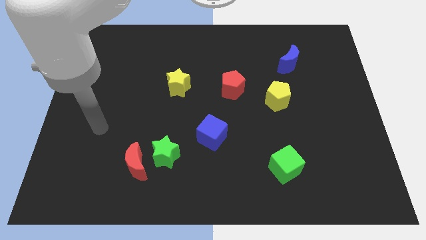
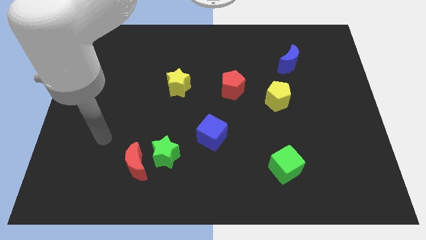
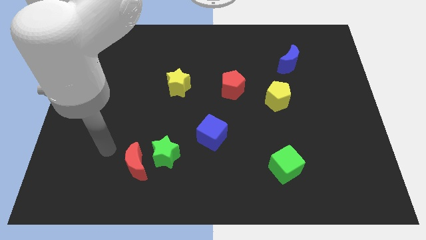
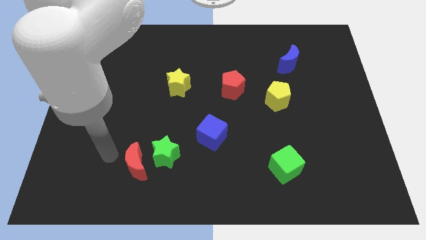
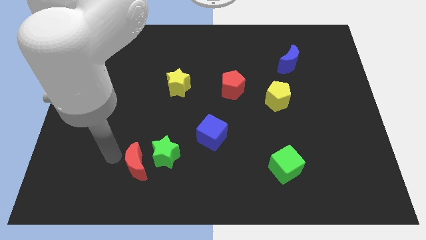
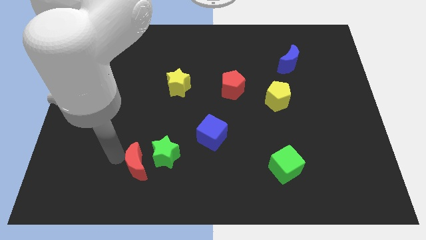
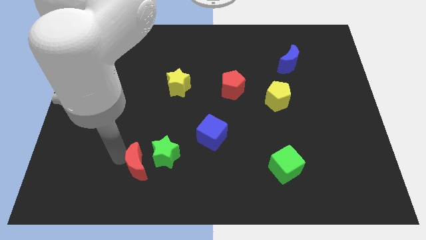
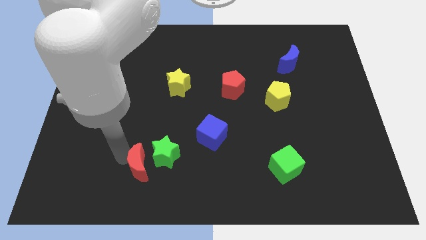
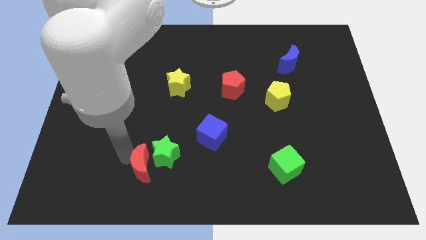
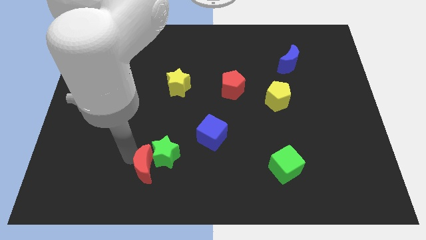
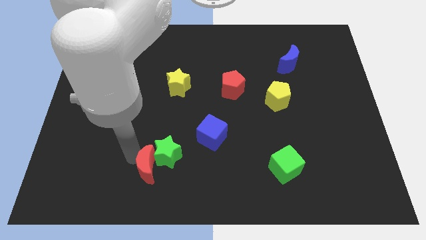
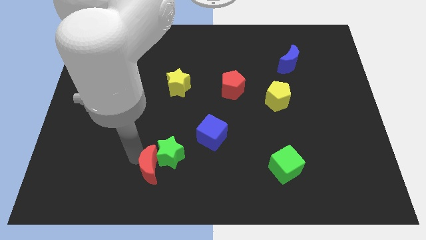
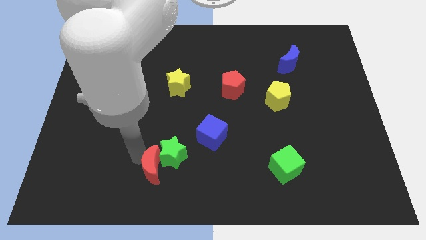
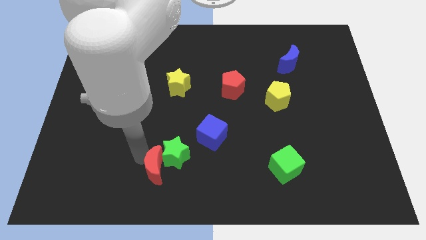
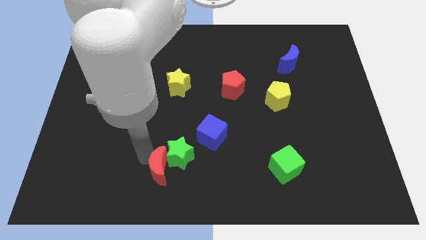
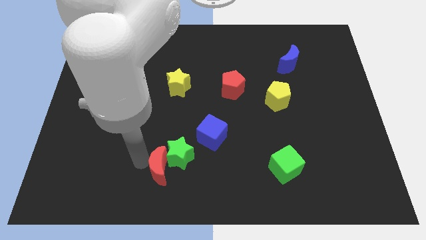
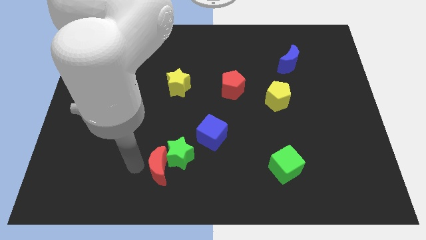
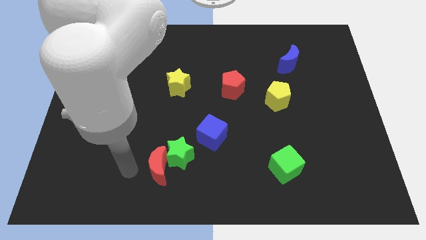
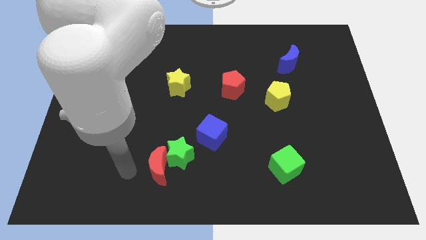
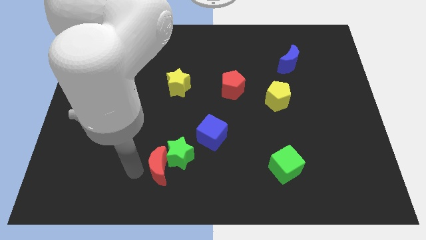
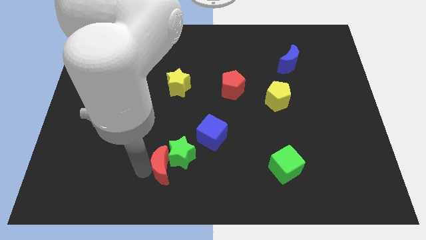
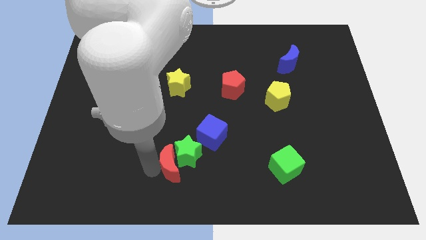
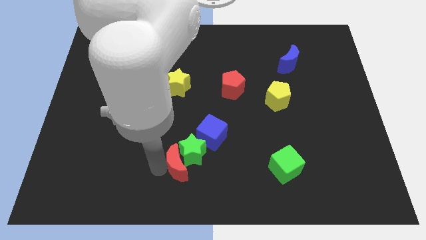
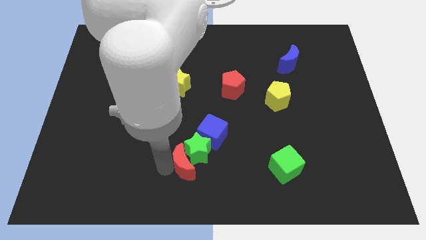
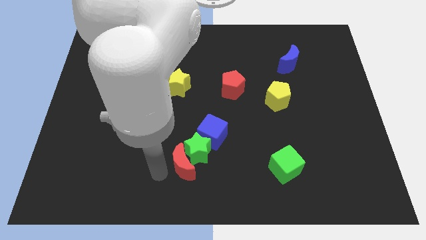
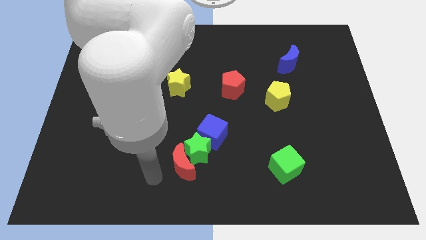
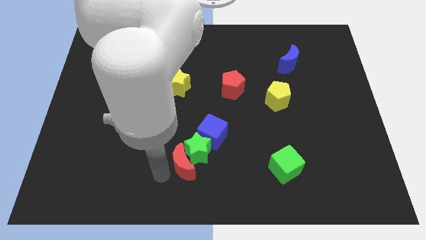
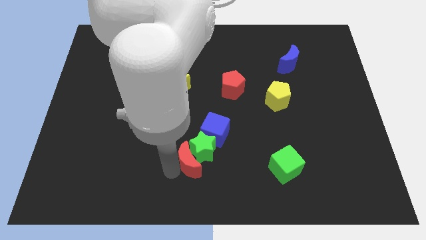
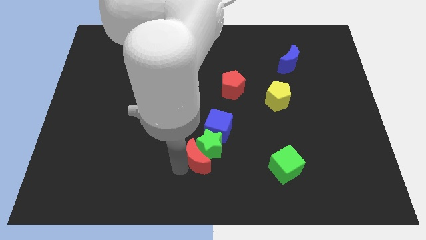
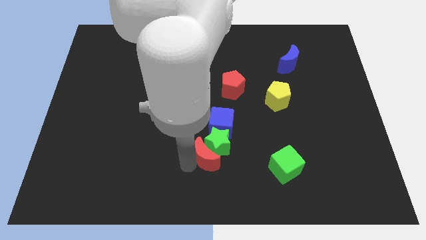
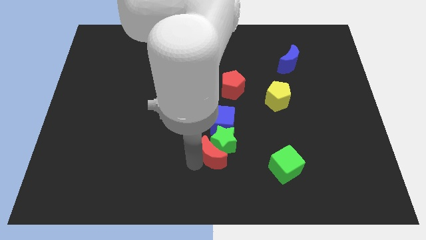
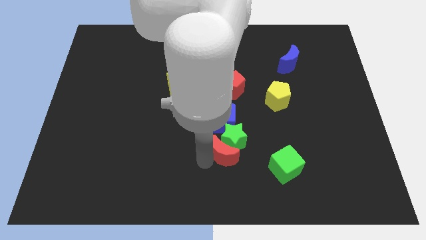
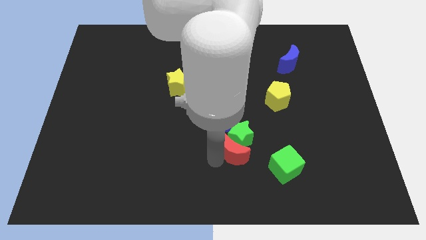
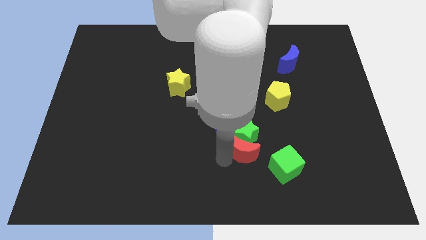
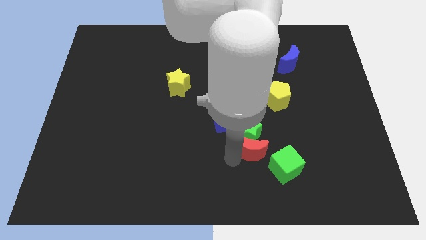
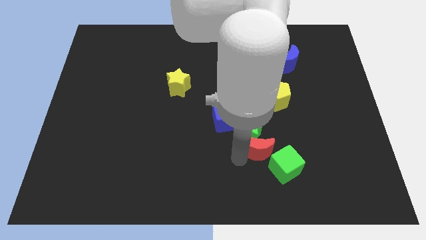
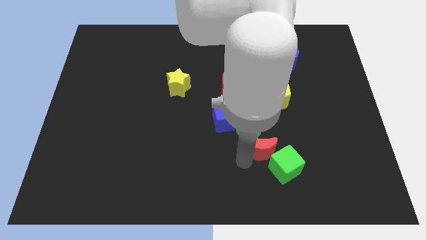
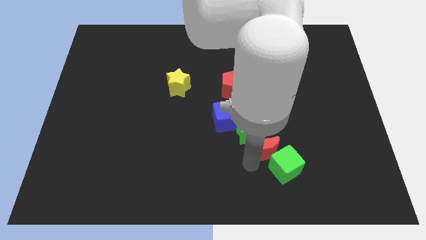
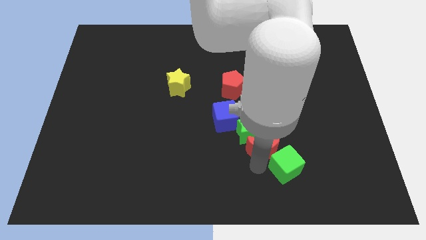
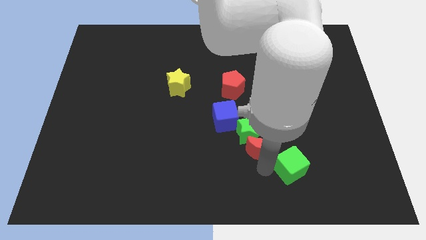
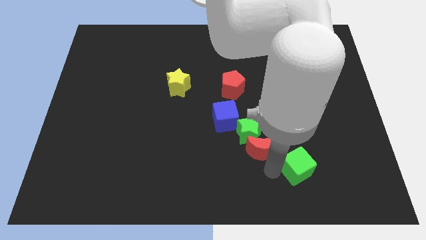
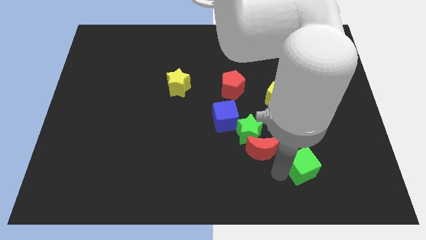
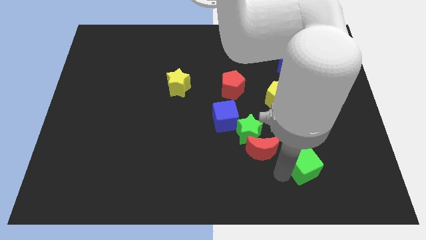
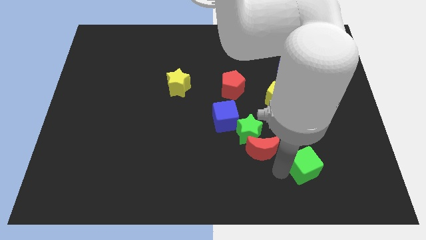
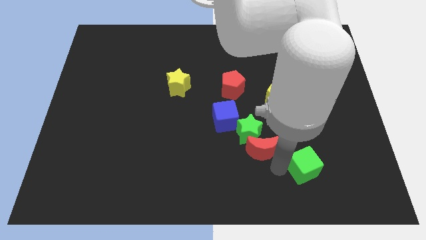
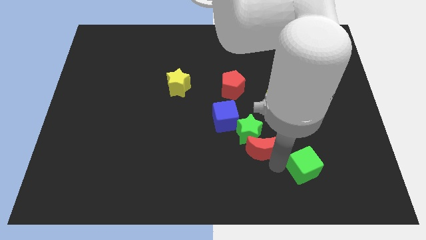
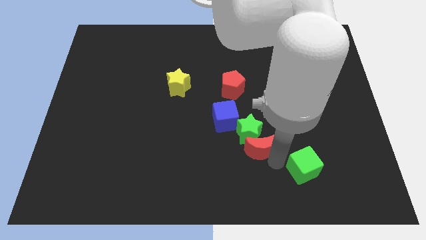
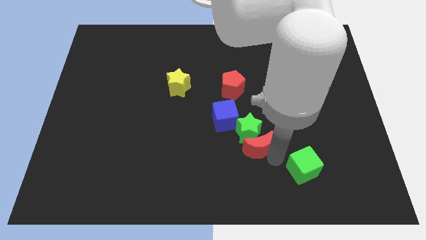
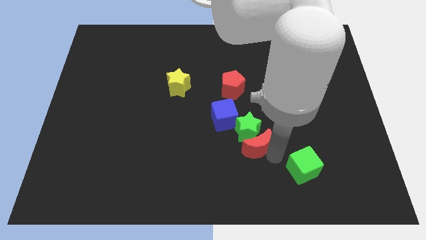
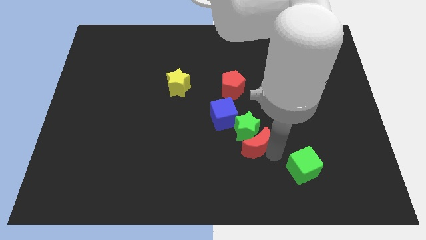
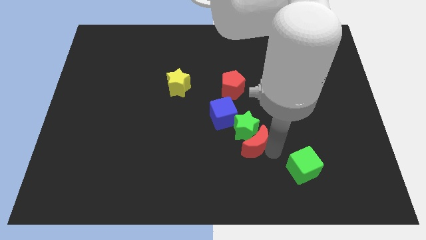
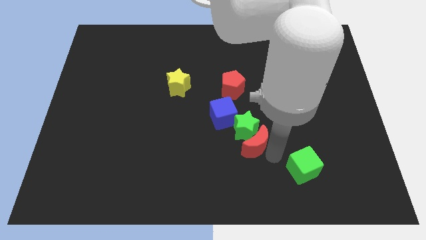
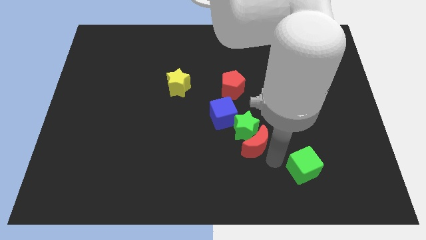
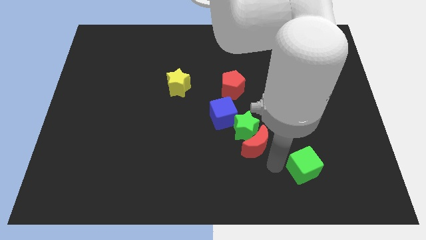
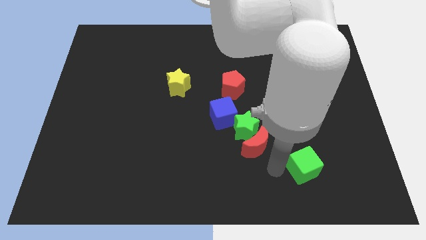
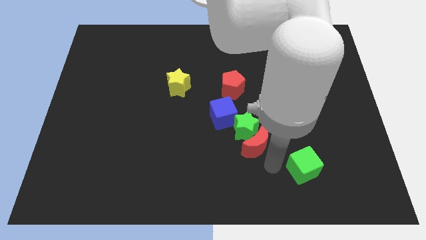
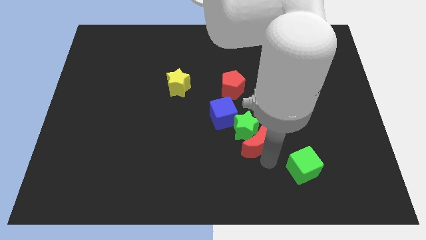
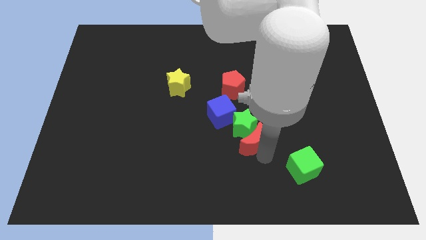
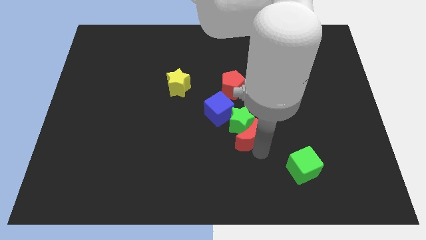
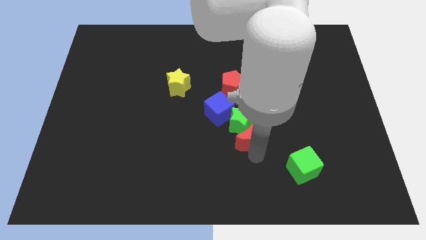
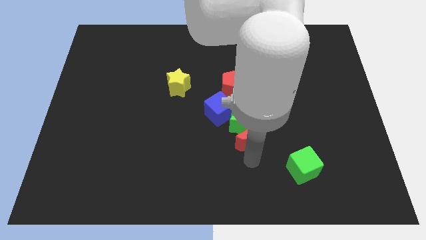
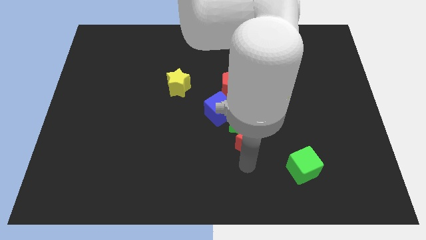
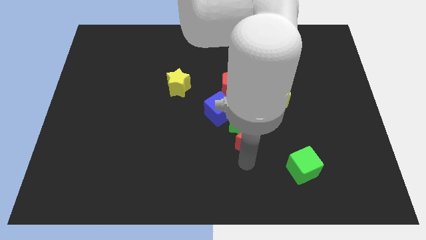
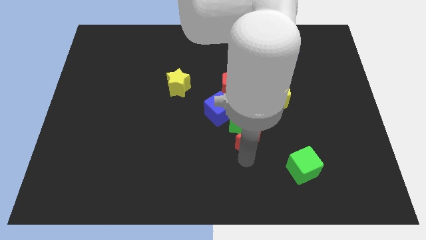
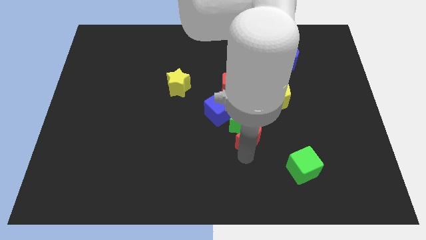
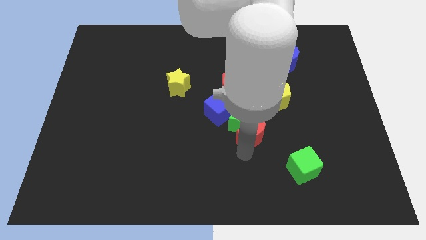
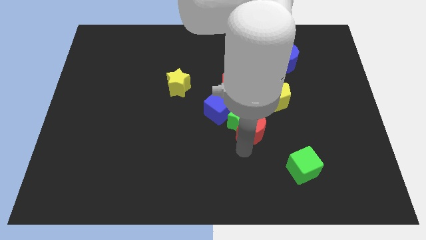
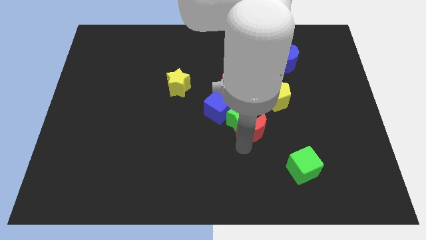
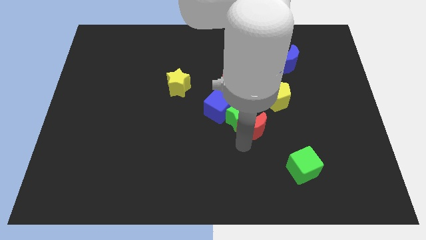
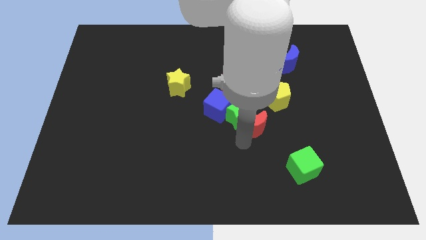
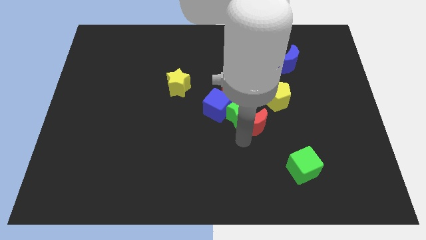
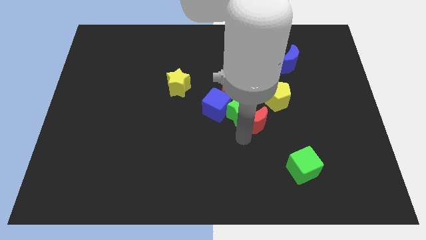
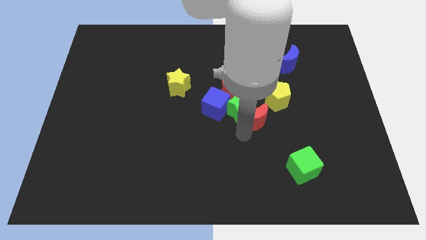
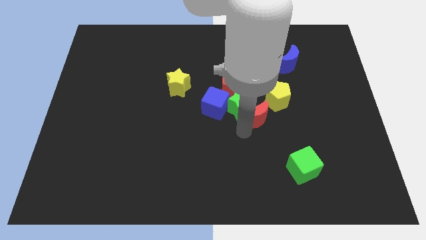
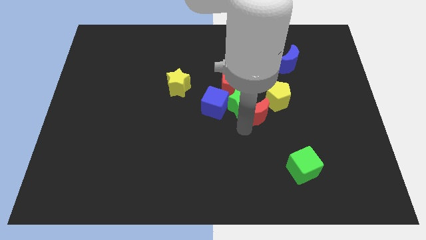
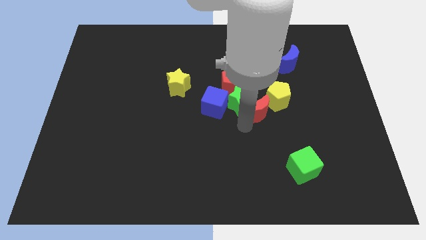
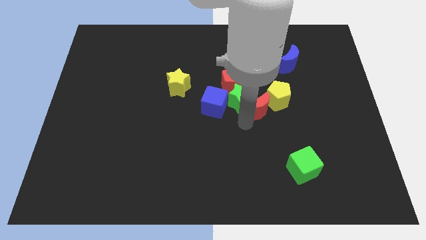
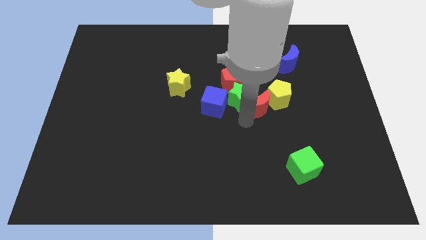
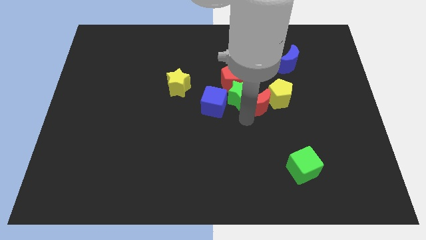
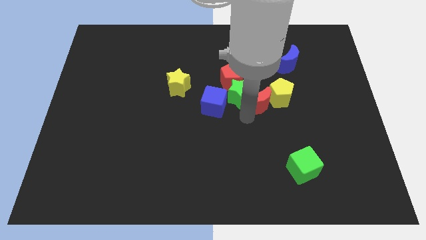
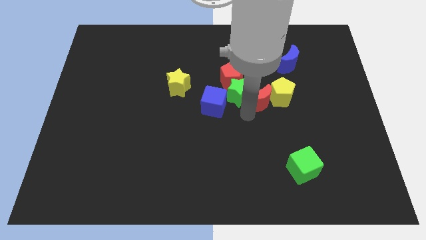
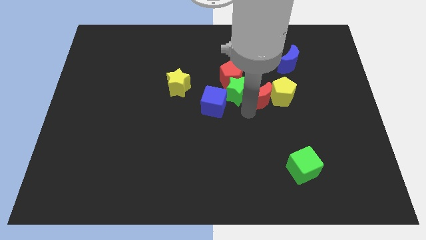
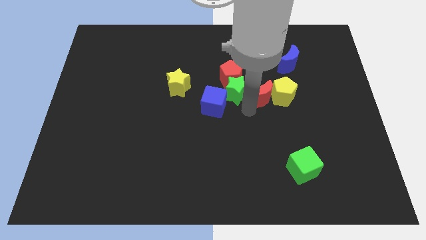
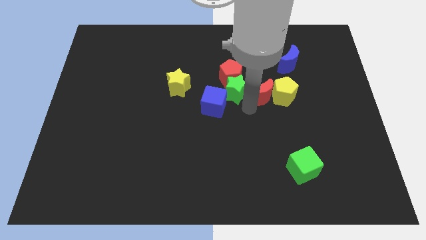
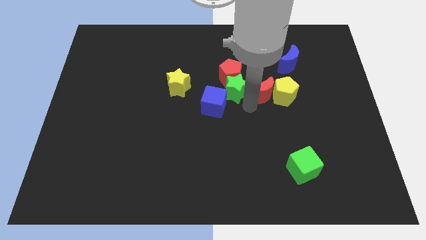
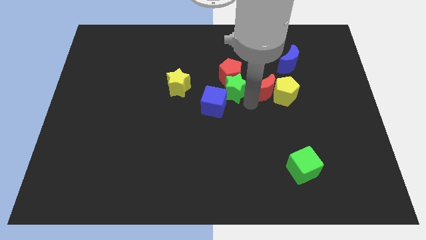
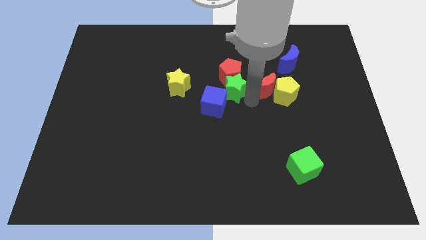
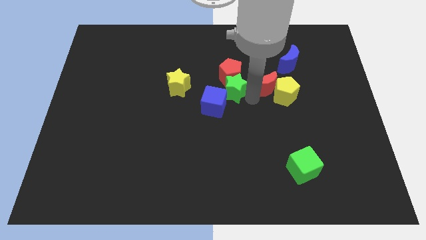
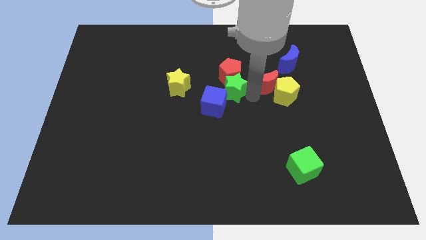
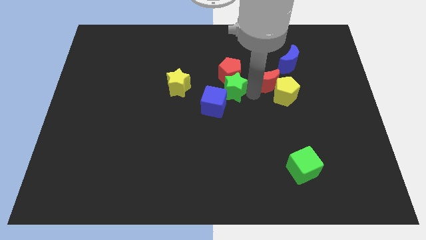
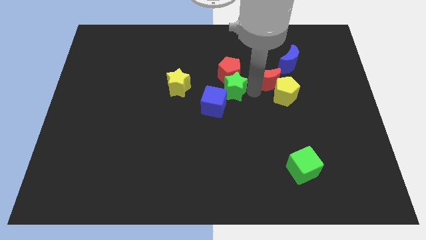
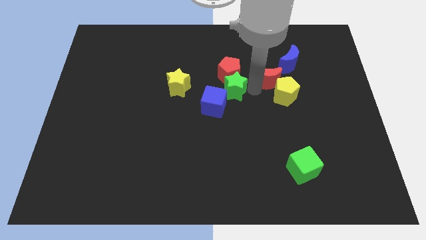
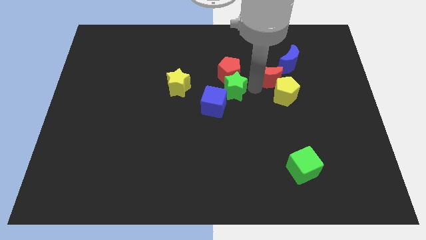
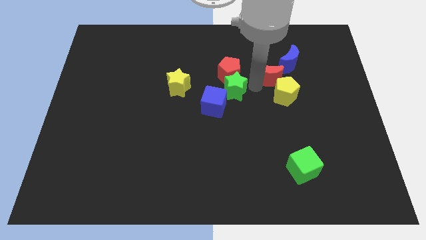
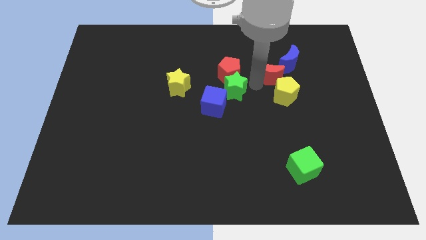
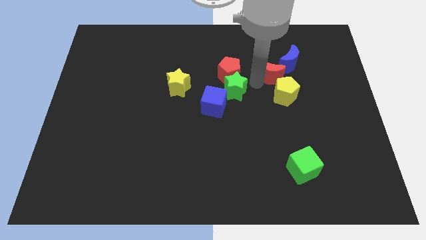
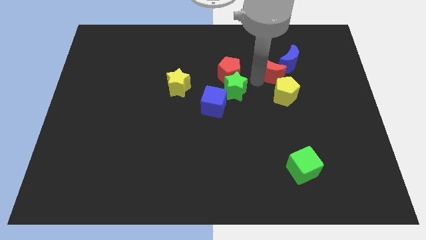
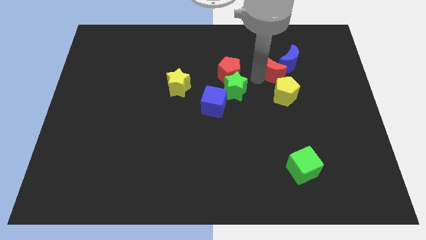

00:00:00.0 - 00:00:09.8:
move the red moon towards the blue moon
